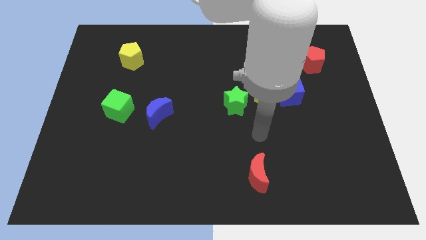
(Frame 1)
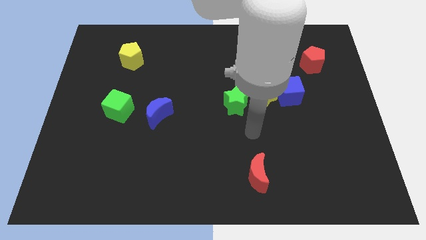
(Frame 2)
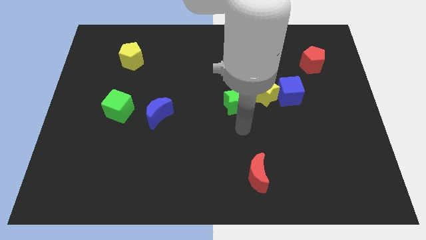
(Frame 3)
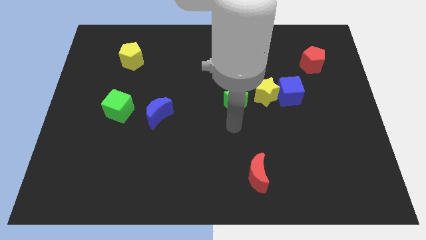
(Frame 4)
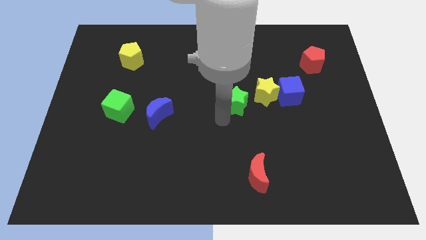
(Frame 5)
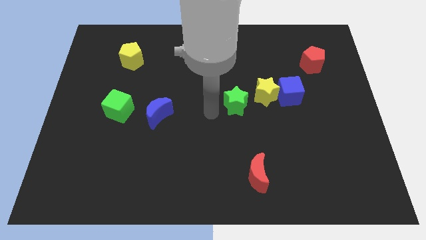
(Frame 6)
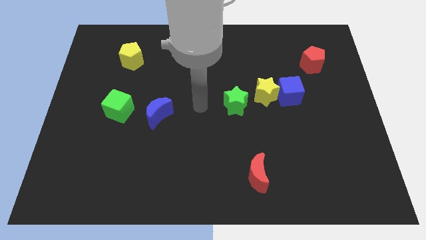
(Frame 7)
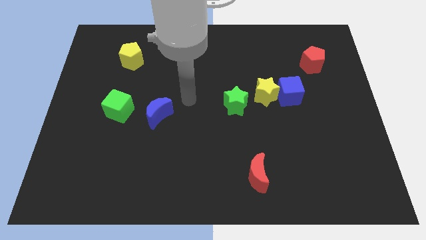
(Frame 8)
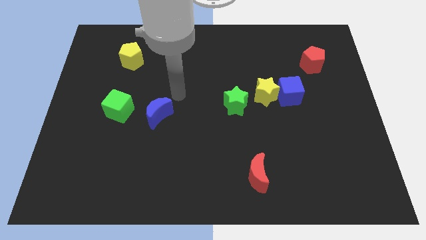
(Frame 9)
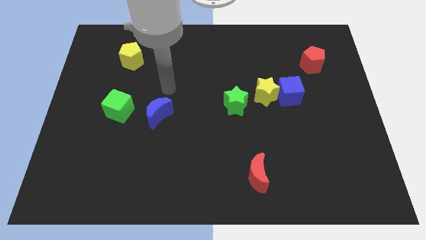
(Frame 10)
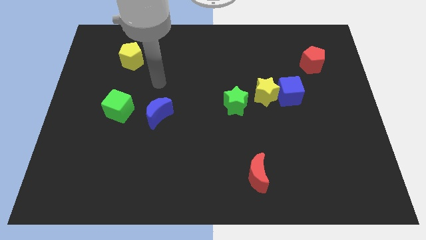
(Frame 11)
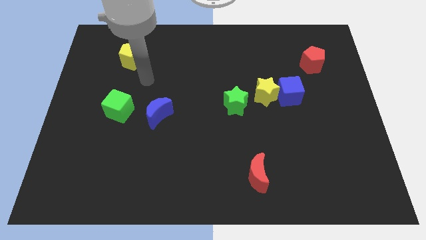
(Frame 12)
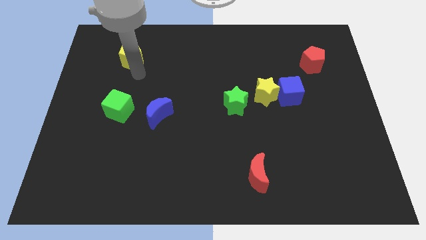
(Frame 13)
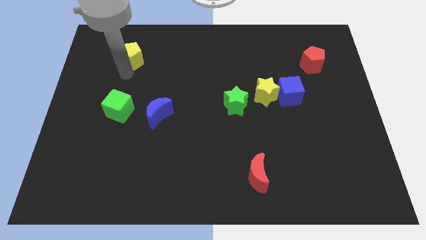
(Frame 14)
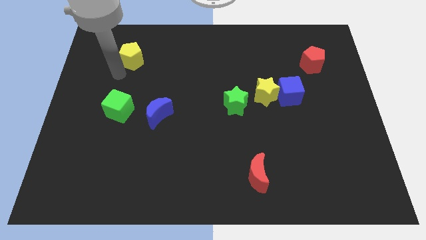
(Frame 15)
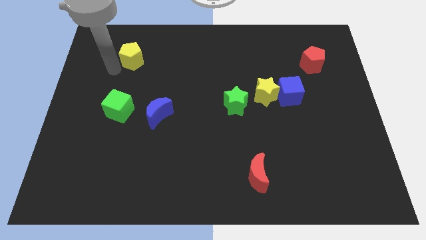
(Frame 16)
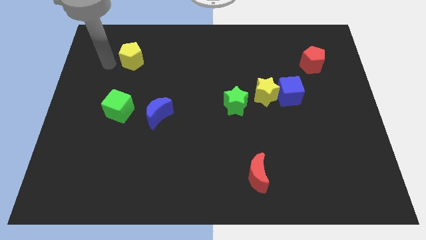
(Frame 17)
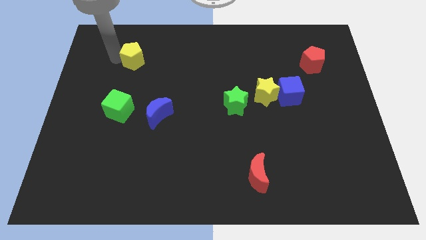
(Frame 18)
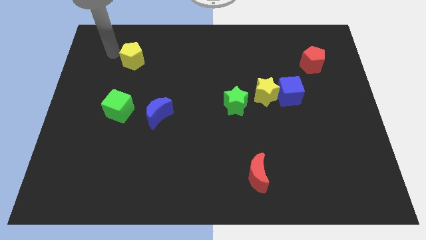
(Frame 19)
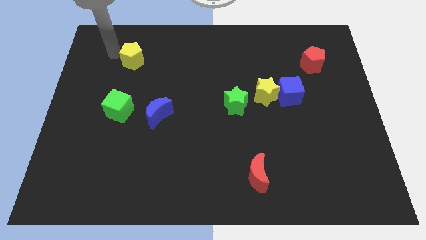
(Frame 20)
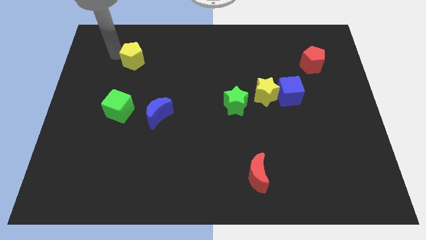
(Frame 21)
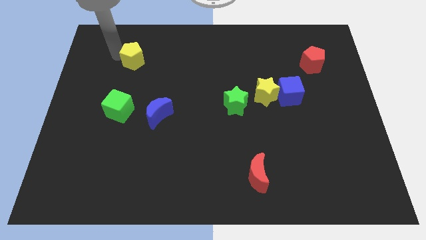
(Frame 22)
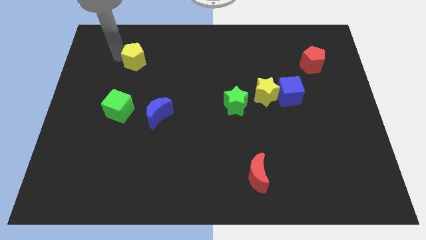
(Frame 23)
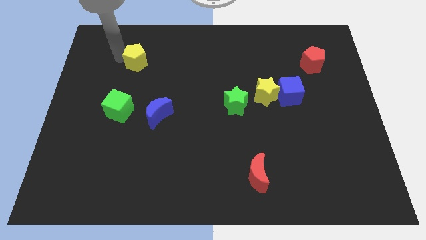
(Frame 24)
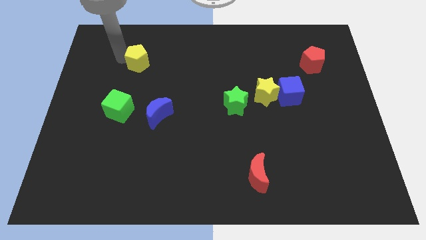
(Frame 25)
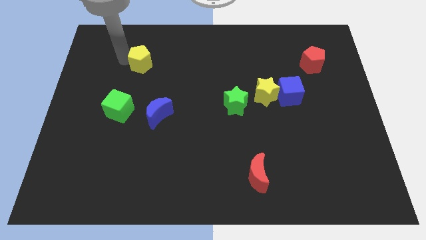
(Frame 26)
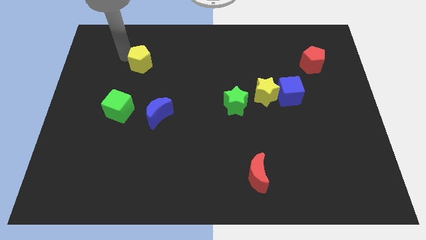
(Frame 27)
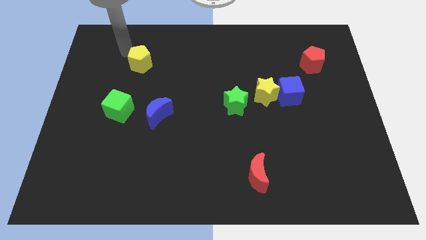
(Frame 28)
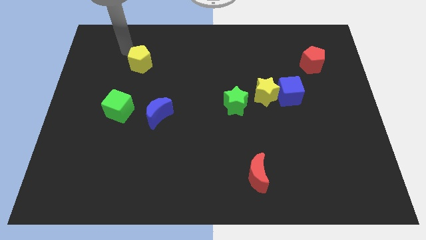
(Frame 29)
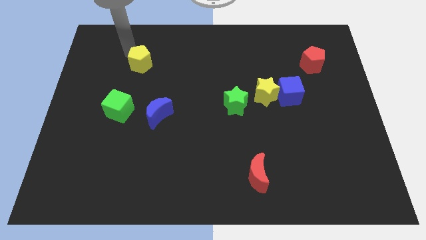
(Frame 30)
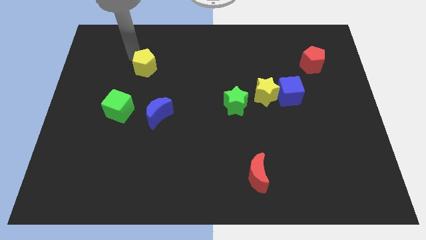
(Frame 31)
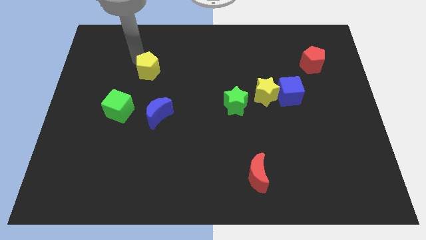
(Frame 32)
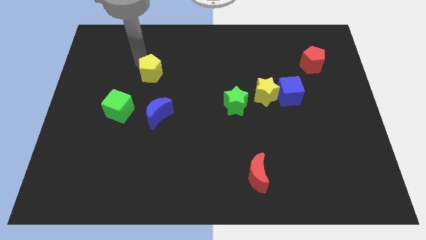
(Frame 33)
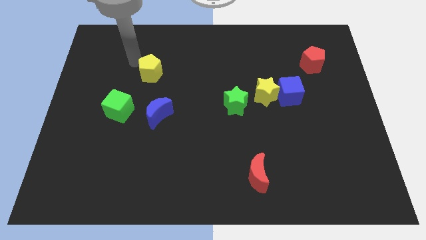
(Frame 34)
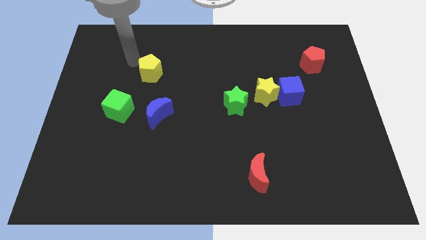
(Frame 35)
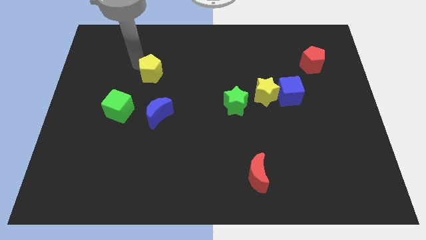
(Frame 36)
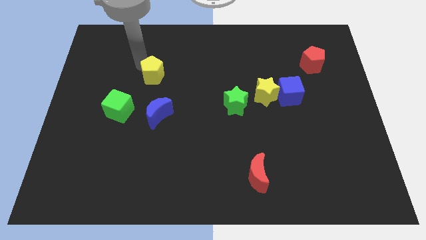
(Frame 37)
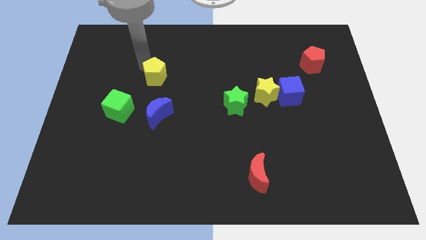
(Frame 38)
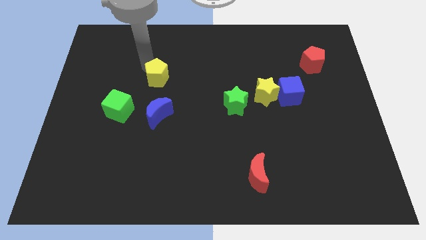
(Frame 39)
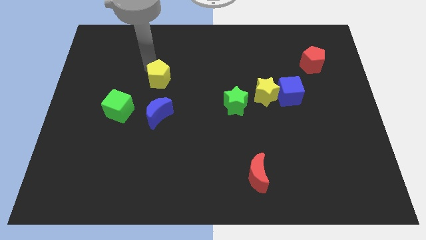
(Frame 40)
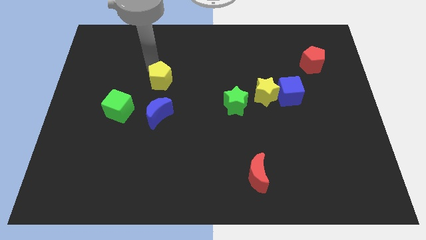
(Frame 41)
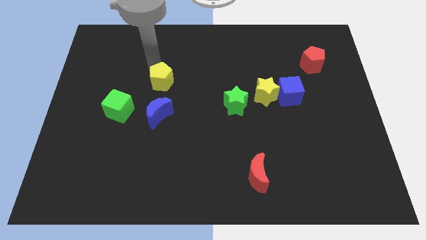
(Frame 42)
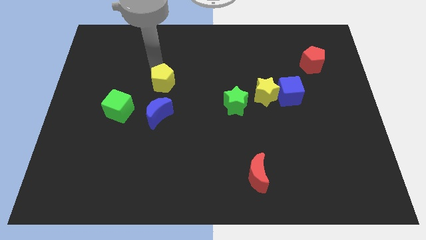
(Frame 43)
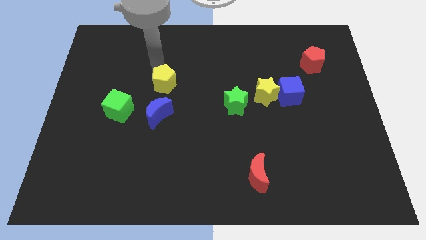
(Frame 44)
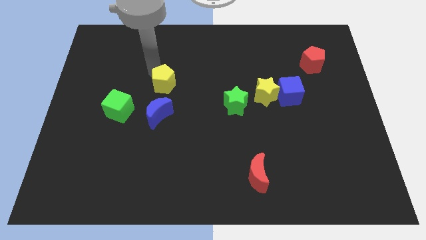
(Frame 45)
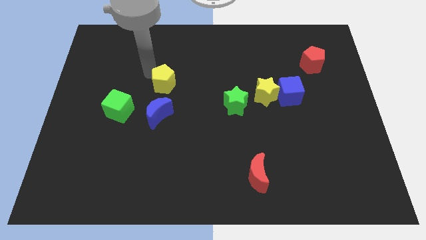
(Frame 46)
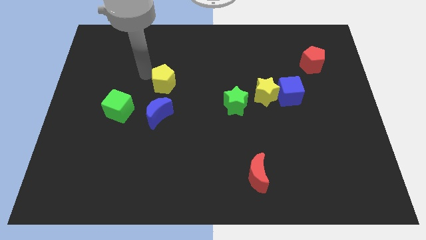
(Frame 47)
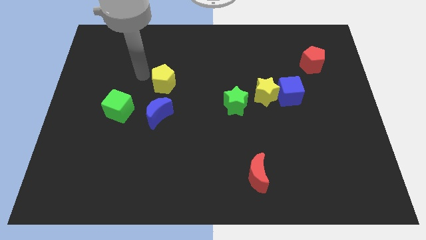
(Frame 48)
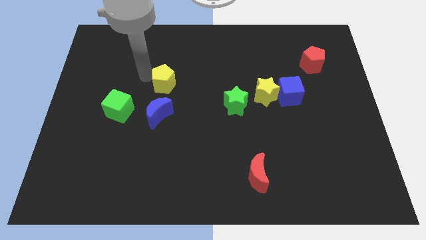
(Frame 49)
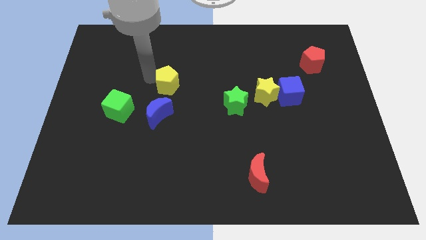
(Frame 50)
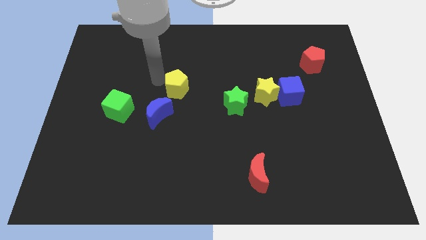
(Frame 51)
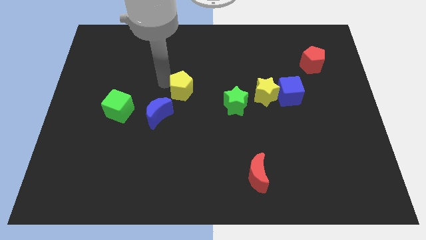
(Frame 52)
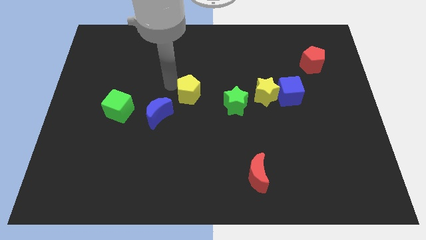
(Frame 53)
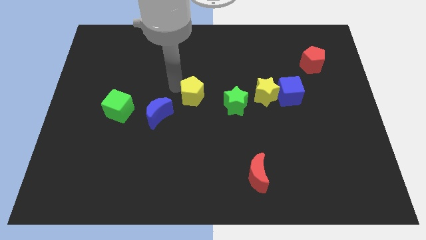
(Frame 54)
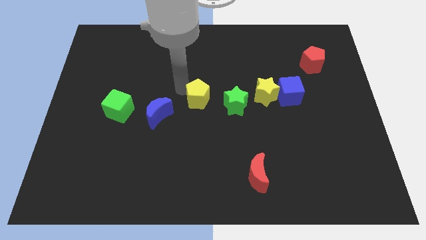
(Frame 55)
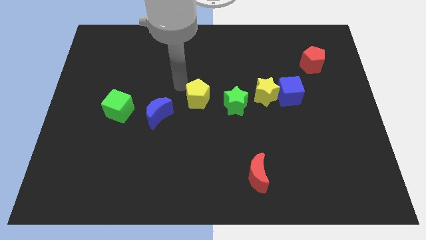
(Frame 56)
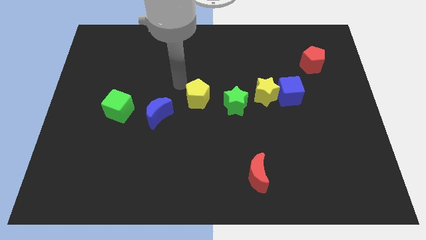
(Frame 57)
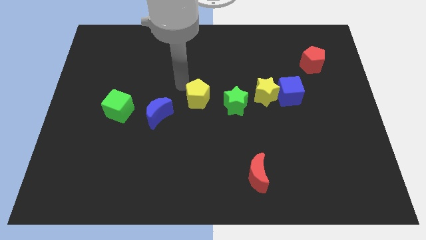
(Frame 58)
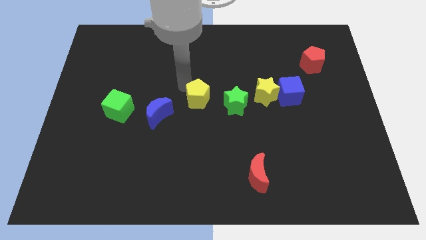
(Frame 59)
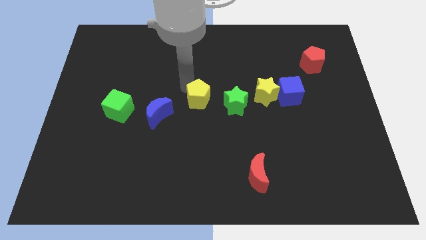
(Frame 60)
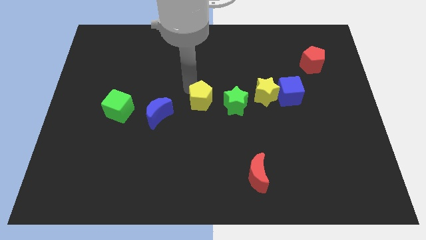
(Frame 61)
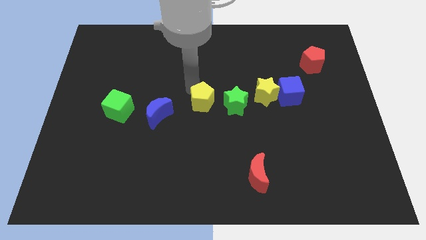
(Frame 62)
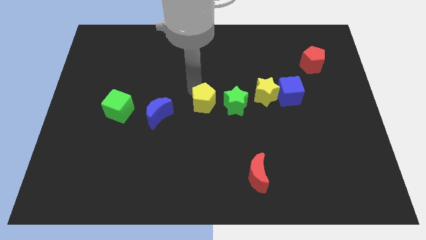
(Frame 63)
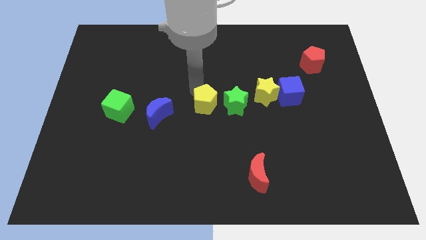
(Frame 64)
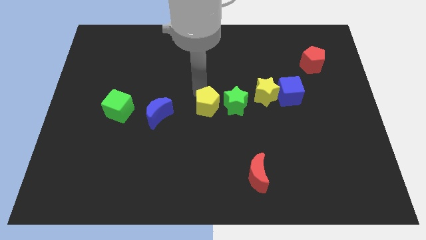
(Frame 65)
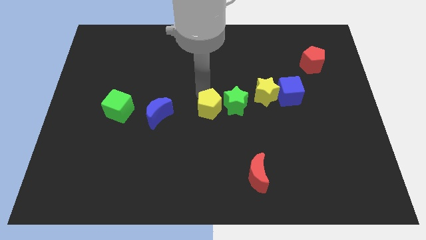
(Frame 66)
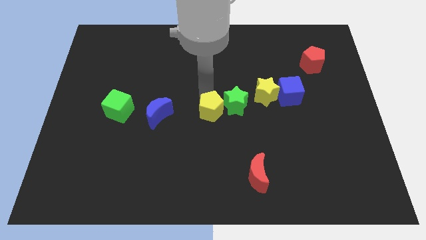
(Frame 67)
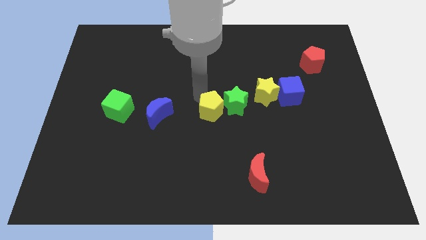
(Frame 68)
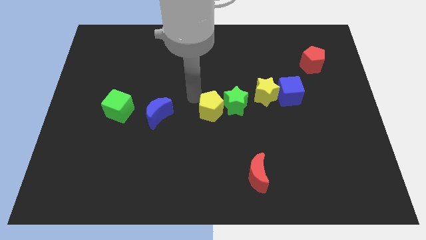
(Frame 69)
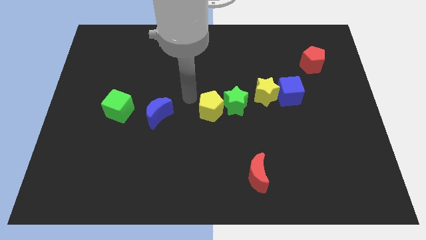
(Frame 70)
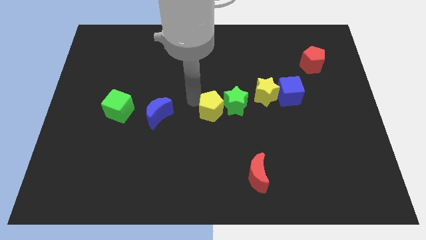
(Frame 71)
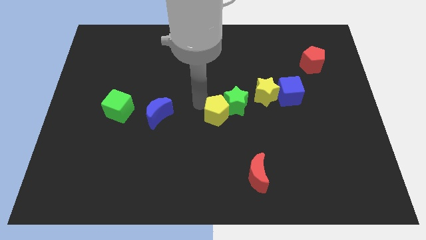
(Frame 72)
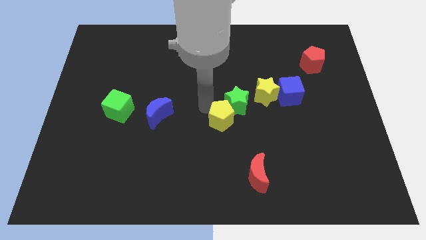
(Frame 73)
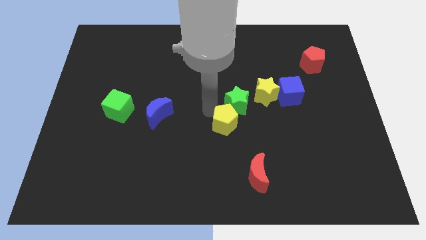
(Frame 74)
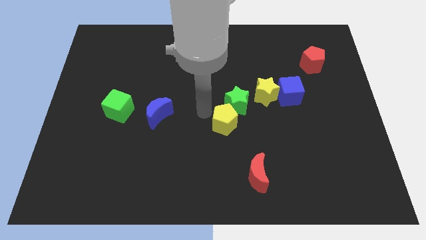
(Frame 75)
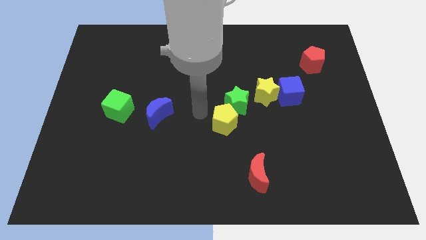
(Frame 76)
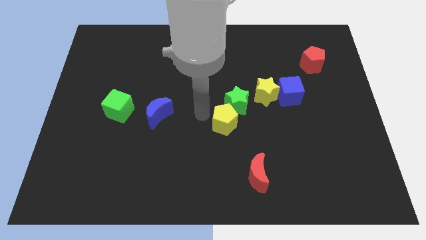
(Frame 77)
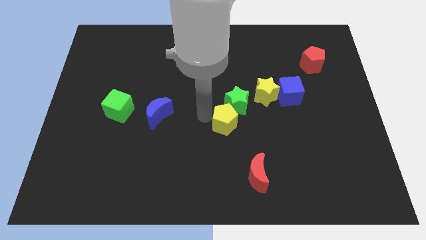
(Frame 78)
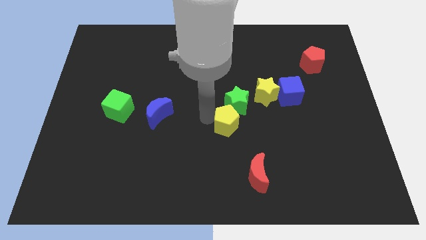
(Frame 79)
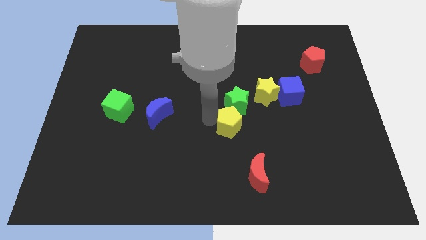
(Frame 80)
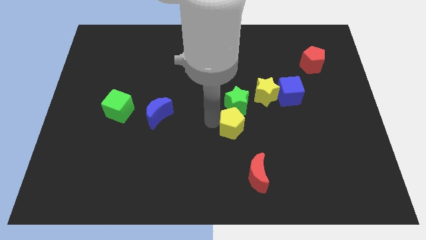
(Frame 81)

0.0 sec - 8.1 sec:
move the yellow pentagon to the top side of the red moon
